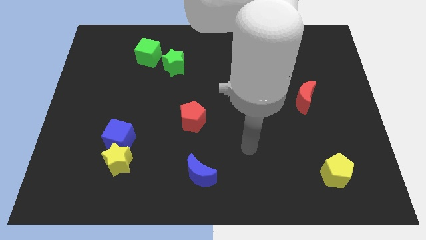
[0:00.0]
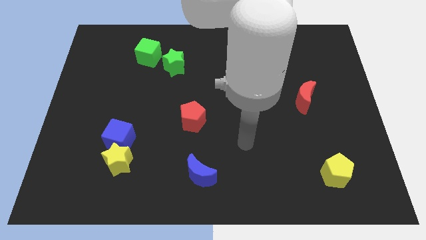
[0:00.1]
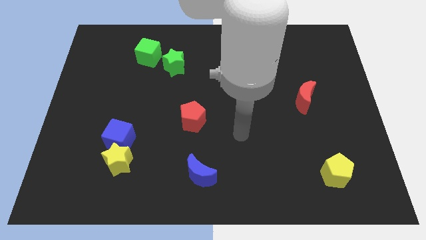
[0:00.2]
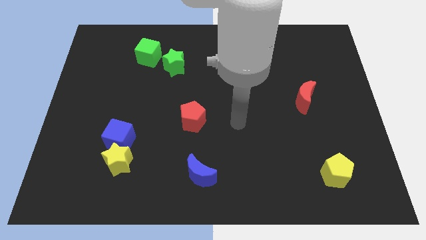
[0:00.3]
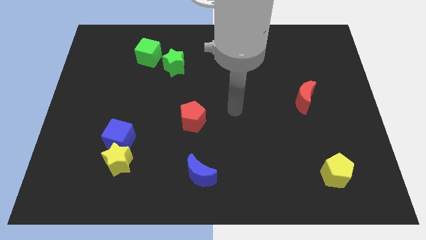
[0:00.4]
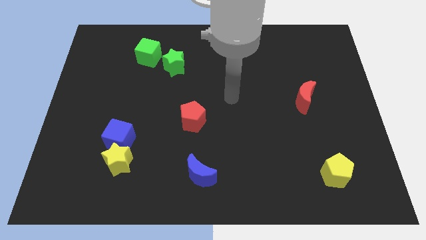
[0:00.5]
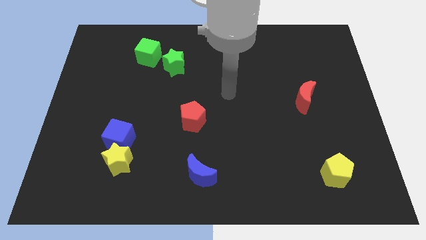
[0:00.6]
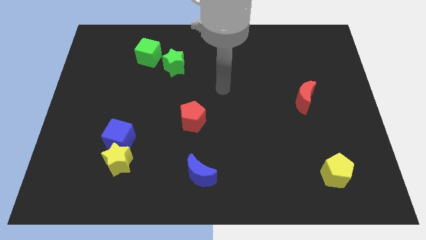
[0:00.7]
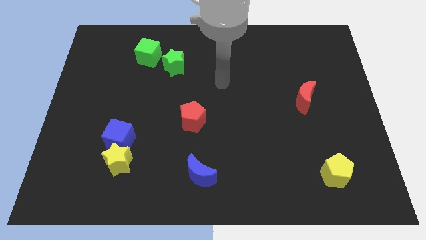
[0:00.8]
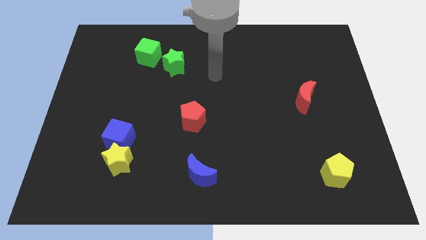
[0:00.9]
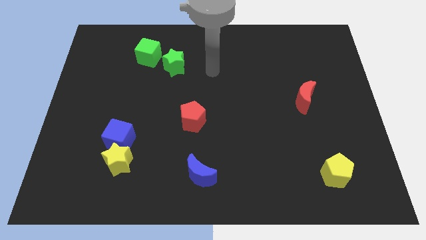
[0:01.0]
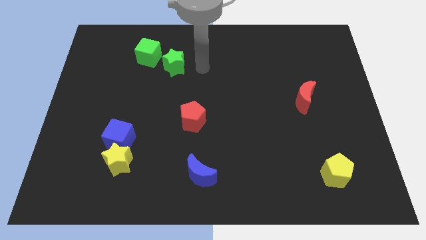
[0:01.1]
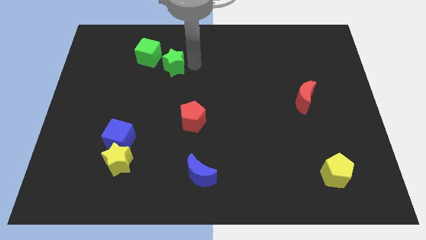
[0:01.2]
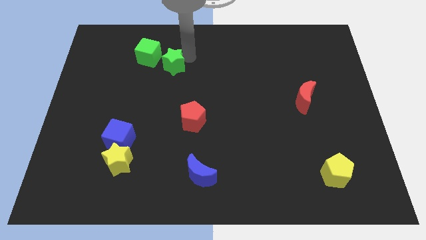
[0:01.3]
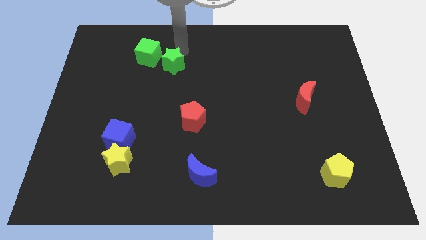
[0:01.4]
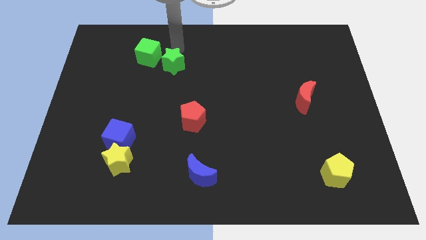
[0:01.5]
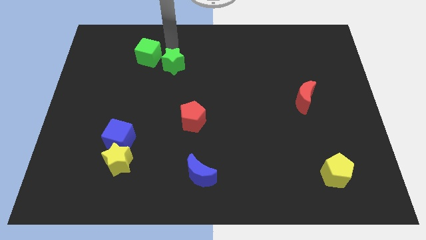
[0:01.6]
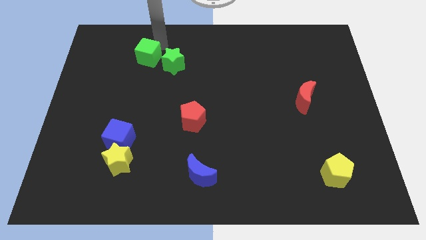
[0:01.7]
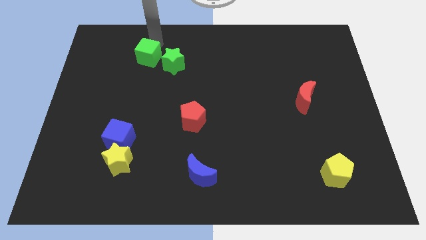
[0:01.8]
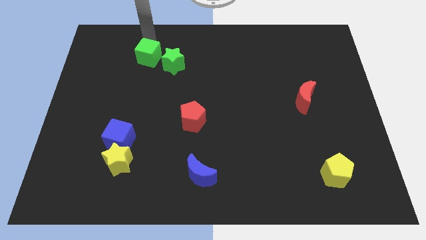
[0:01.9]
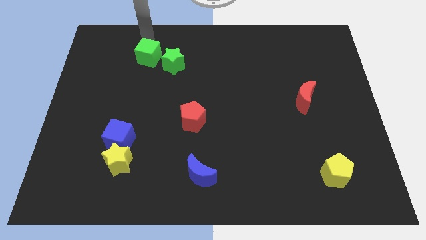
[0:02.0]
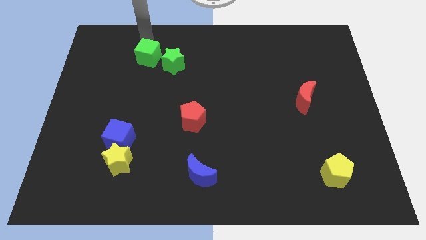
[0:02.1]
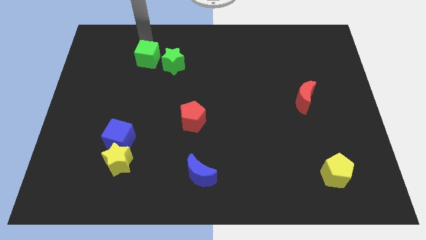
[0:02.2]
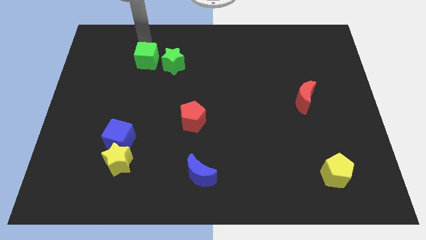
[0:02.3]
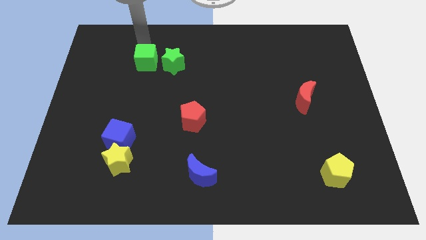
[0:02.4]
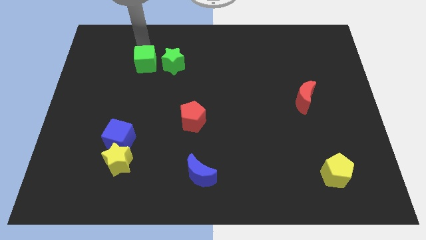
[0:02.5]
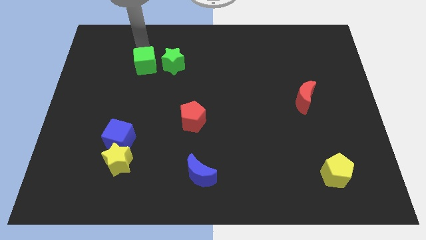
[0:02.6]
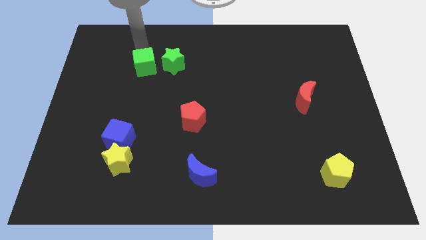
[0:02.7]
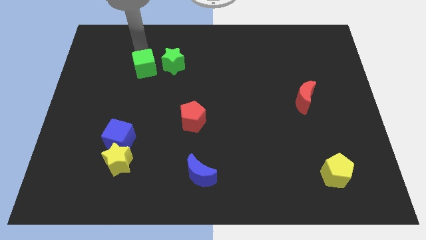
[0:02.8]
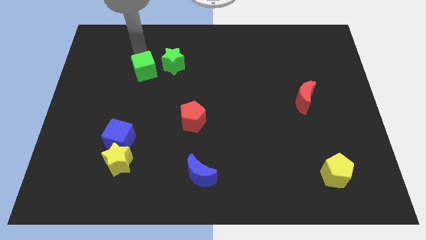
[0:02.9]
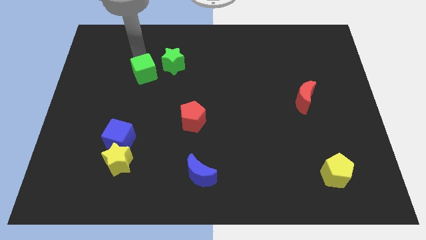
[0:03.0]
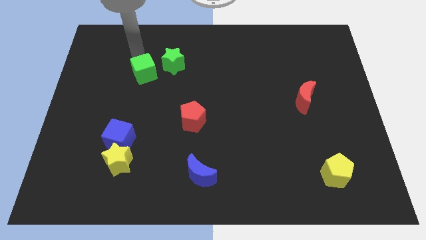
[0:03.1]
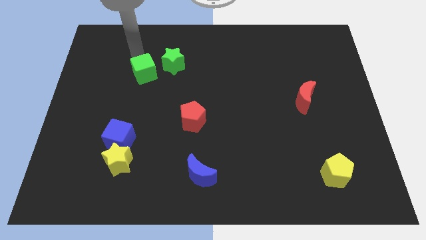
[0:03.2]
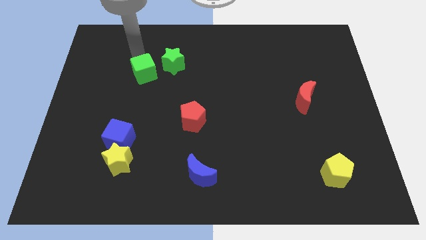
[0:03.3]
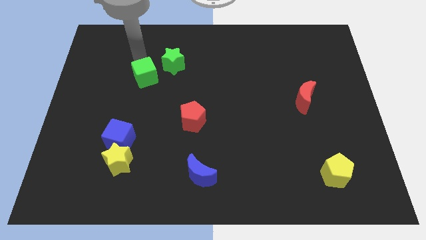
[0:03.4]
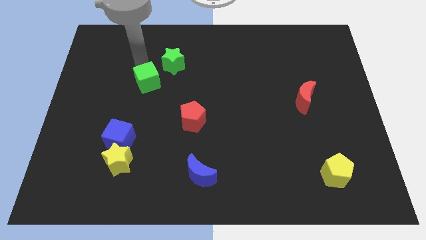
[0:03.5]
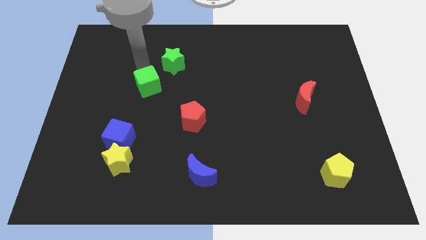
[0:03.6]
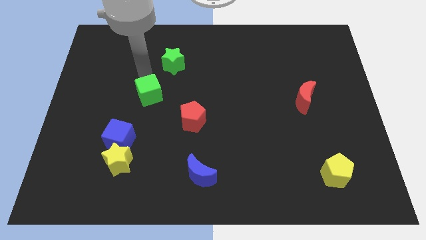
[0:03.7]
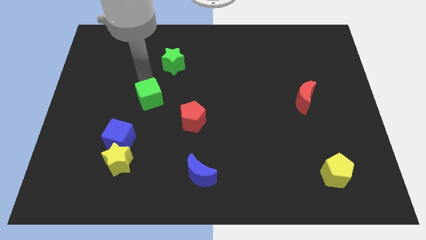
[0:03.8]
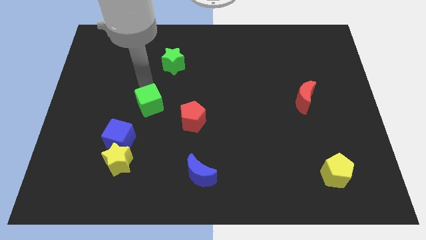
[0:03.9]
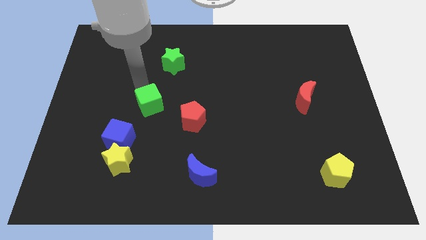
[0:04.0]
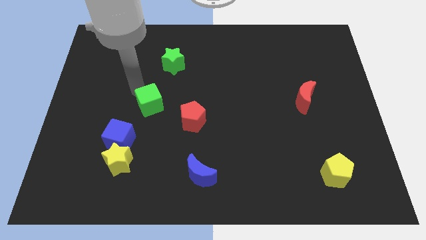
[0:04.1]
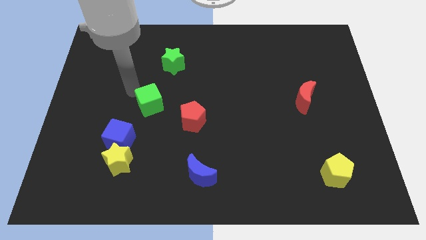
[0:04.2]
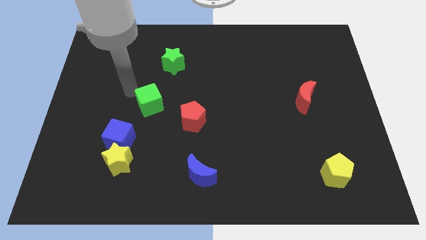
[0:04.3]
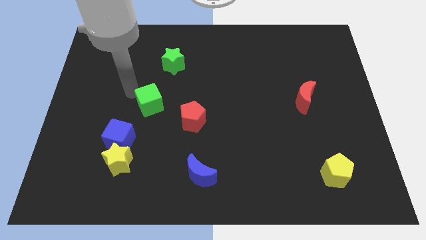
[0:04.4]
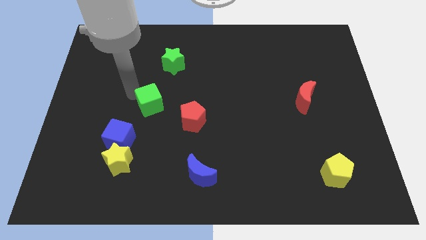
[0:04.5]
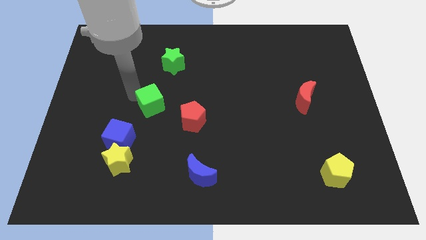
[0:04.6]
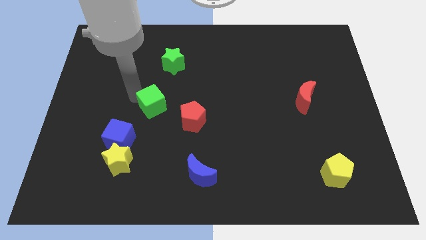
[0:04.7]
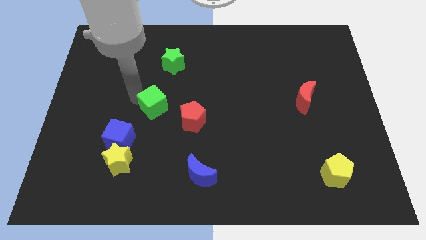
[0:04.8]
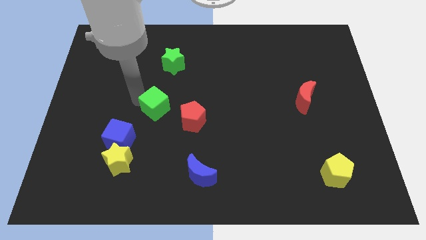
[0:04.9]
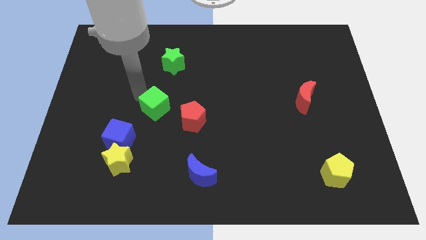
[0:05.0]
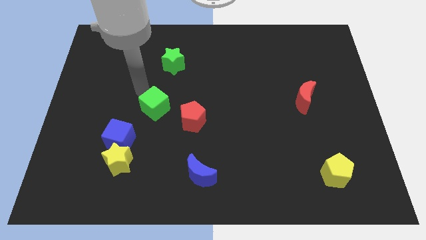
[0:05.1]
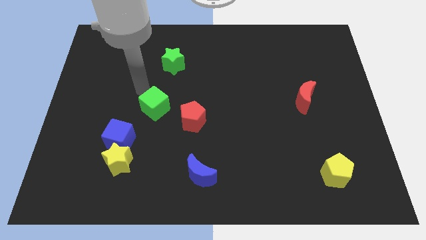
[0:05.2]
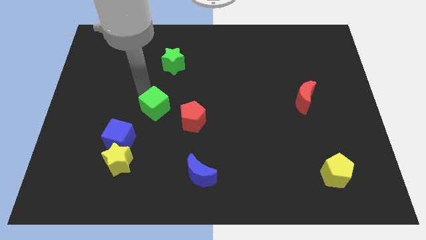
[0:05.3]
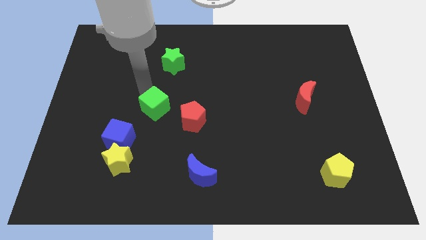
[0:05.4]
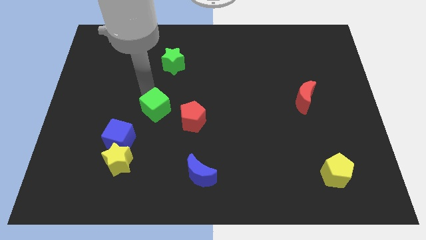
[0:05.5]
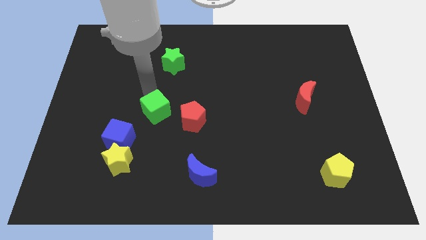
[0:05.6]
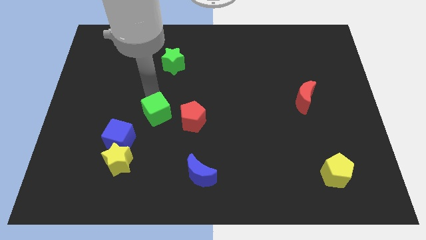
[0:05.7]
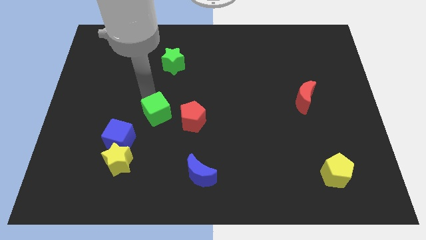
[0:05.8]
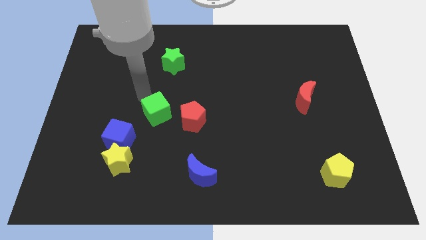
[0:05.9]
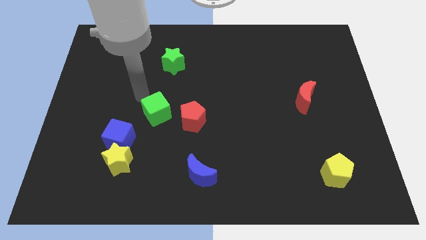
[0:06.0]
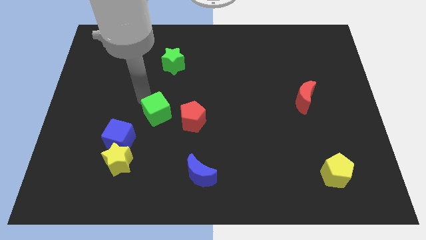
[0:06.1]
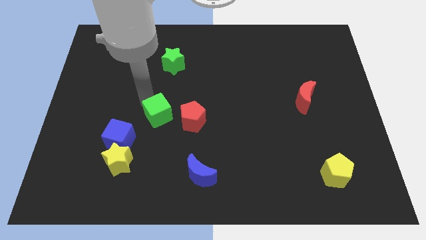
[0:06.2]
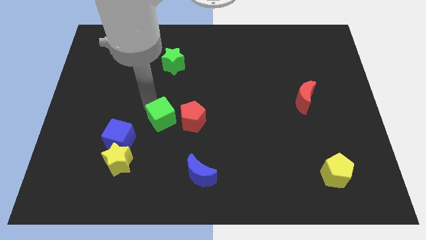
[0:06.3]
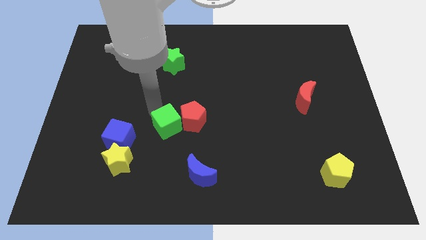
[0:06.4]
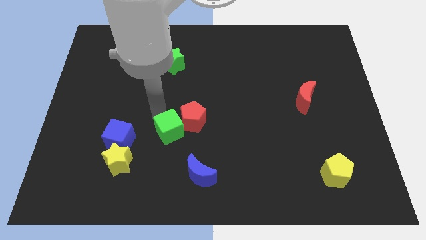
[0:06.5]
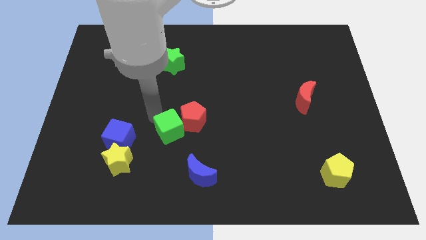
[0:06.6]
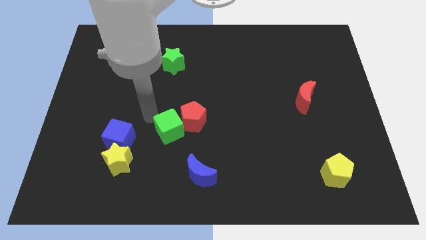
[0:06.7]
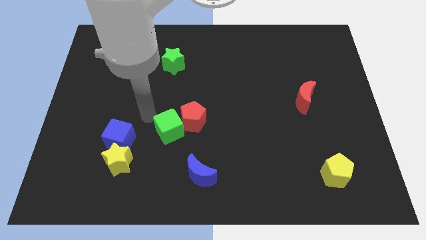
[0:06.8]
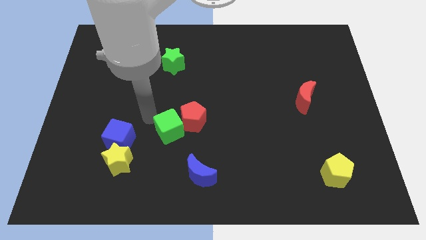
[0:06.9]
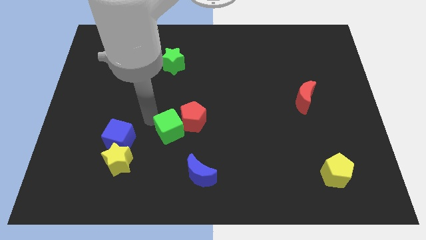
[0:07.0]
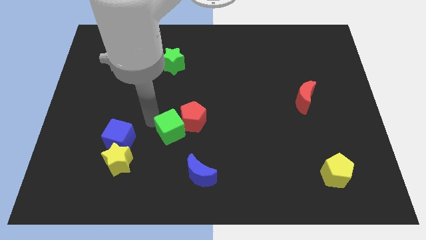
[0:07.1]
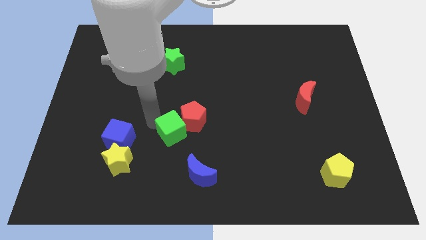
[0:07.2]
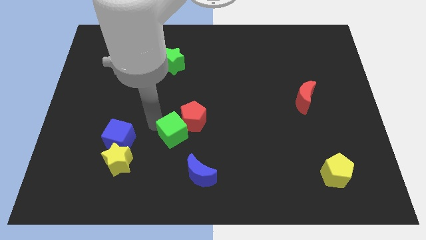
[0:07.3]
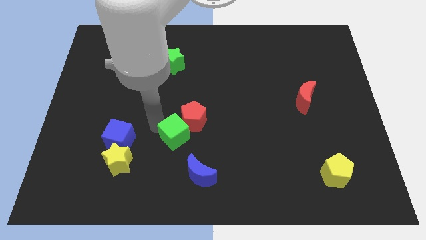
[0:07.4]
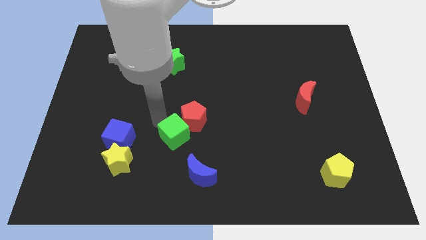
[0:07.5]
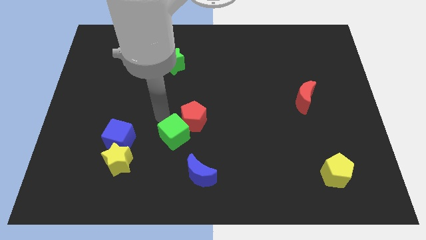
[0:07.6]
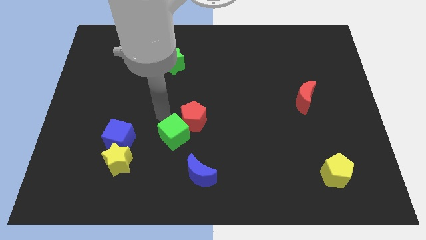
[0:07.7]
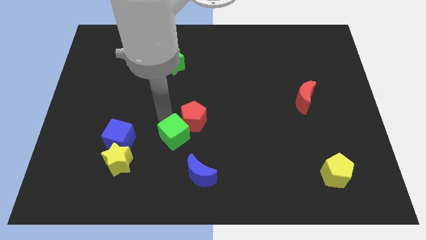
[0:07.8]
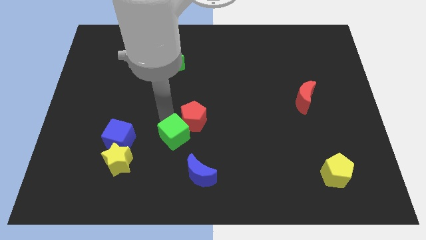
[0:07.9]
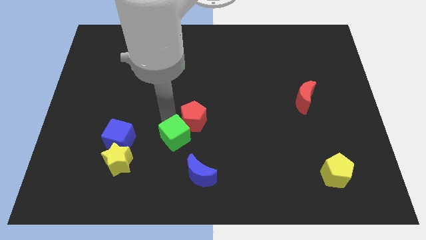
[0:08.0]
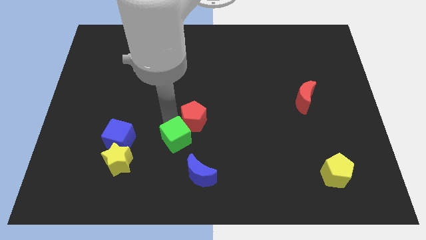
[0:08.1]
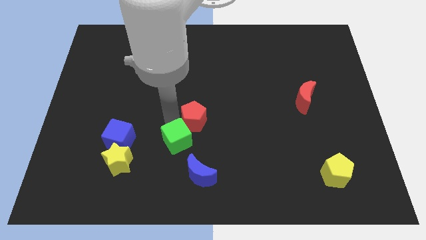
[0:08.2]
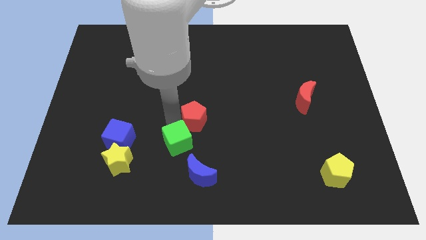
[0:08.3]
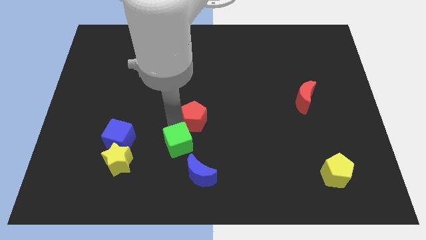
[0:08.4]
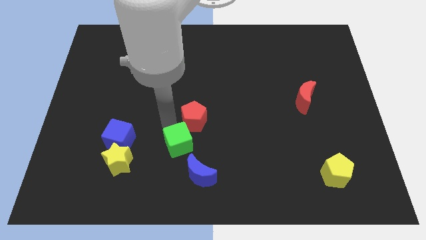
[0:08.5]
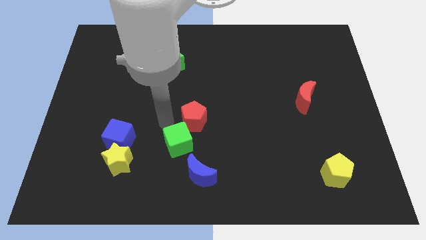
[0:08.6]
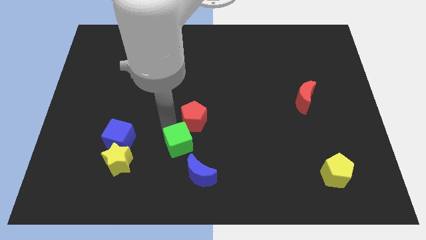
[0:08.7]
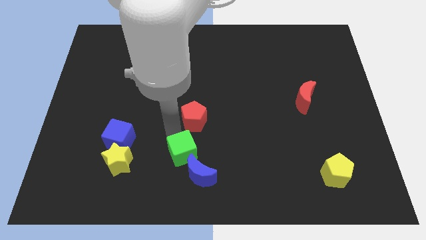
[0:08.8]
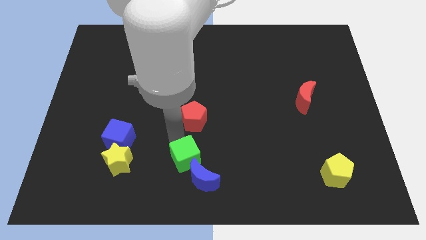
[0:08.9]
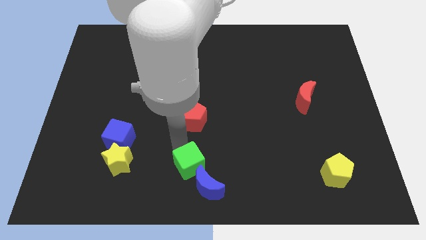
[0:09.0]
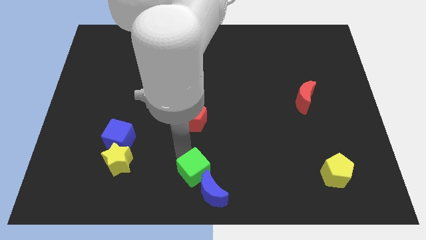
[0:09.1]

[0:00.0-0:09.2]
put the green cube close to the blue moon
